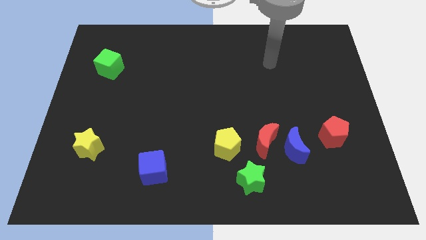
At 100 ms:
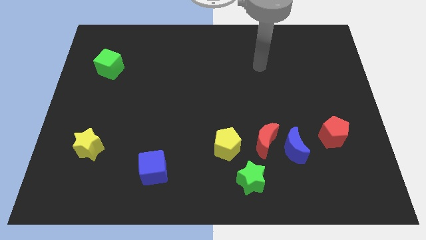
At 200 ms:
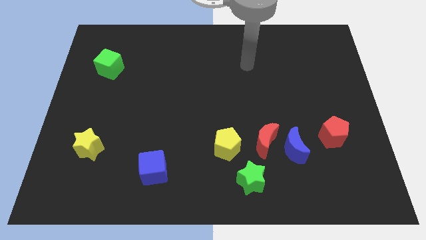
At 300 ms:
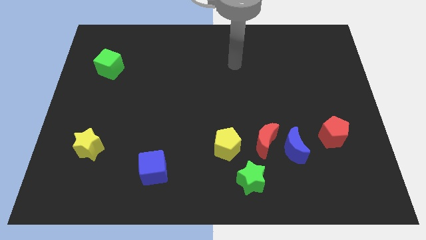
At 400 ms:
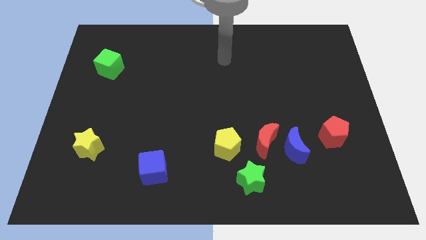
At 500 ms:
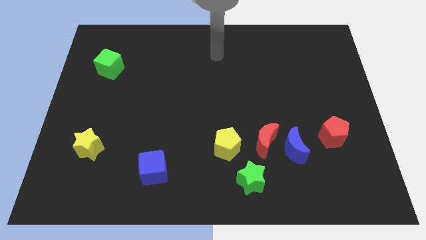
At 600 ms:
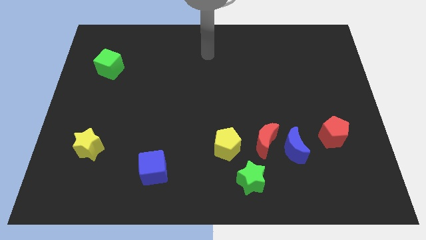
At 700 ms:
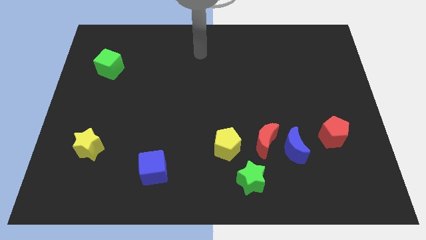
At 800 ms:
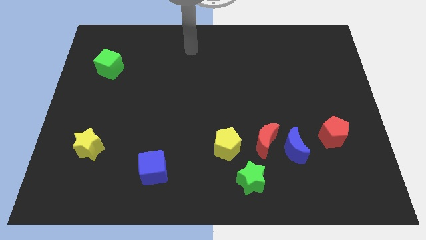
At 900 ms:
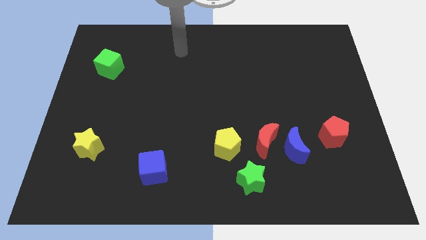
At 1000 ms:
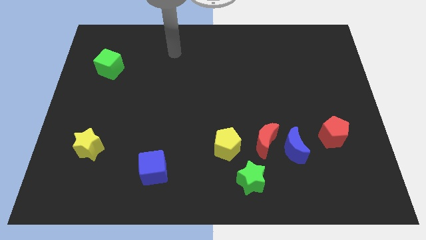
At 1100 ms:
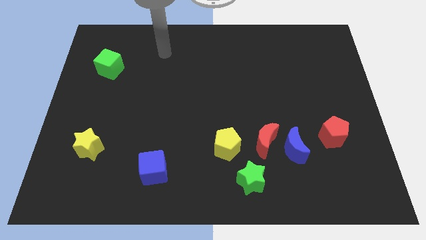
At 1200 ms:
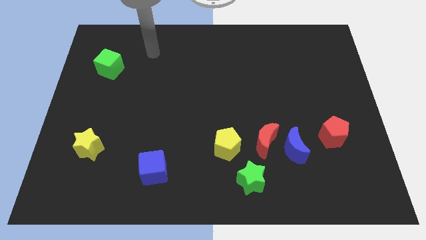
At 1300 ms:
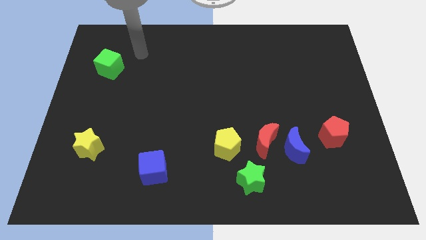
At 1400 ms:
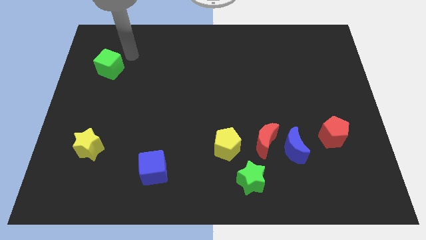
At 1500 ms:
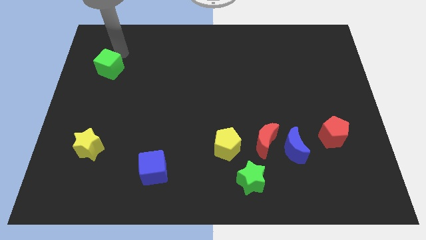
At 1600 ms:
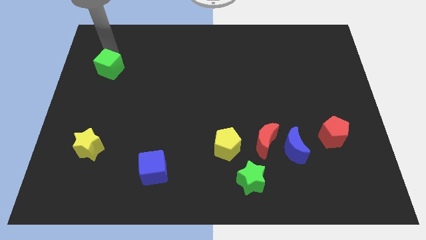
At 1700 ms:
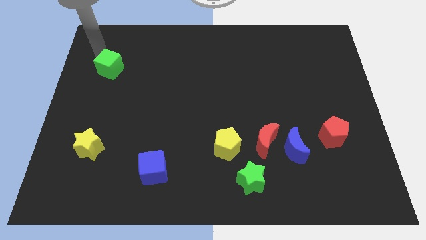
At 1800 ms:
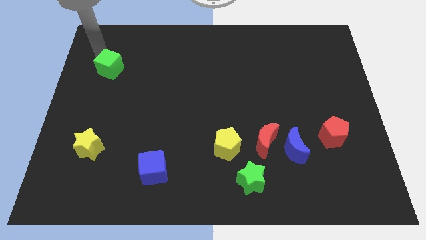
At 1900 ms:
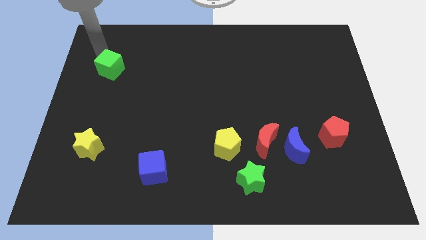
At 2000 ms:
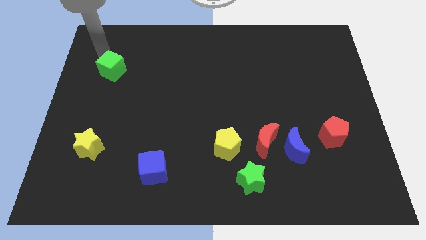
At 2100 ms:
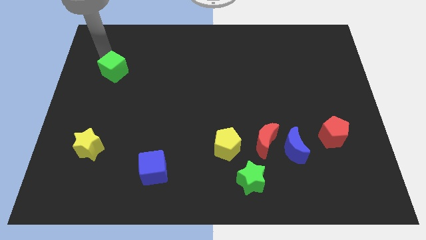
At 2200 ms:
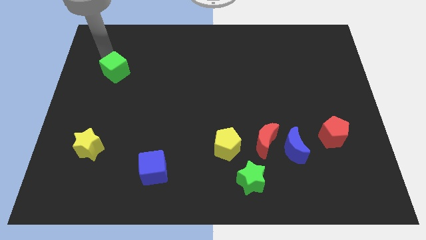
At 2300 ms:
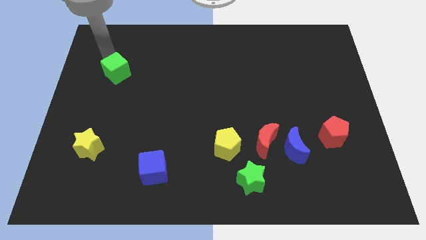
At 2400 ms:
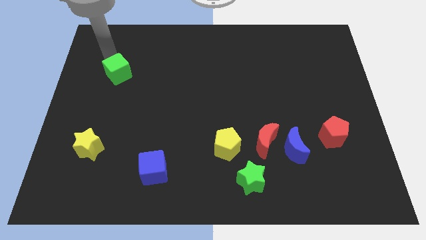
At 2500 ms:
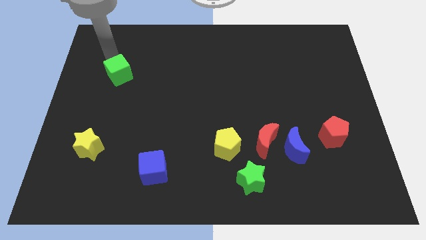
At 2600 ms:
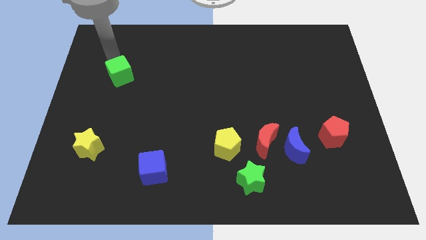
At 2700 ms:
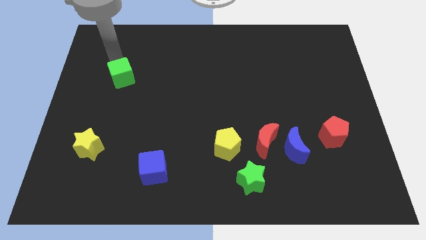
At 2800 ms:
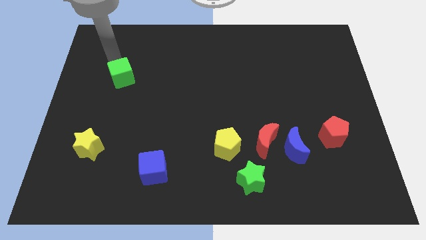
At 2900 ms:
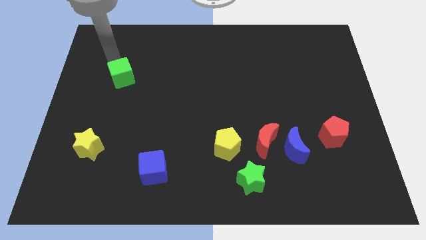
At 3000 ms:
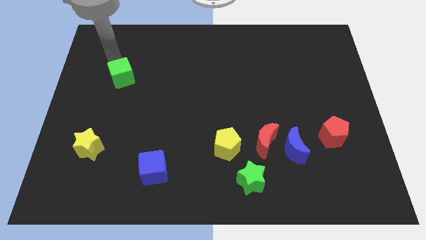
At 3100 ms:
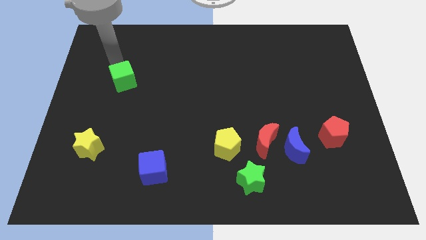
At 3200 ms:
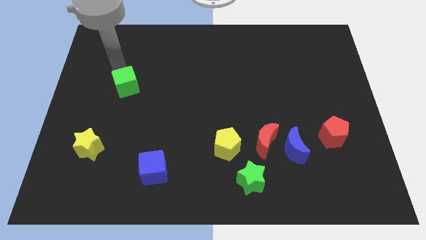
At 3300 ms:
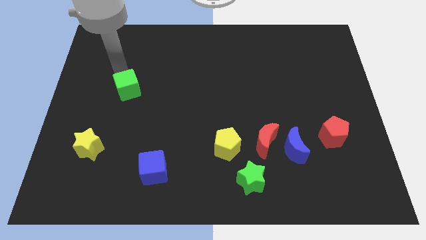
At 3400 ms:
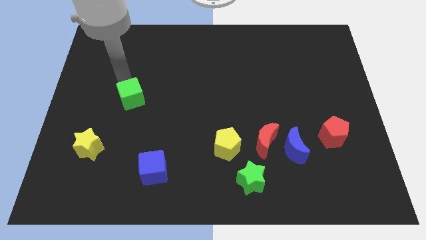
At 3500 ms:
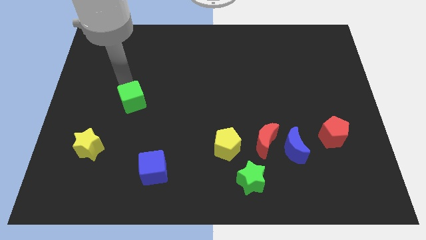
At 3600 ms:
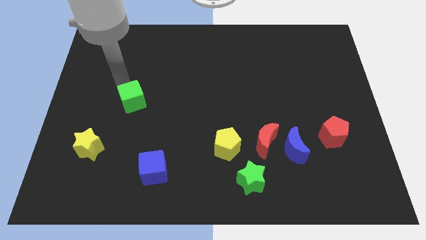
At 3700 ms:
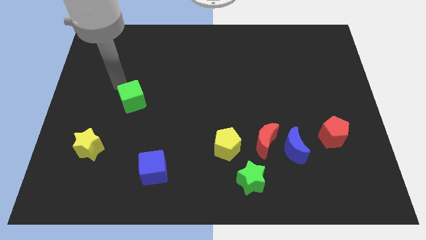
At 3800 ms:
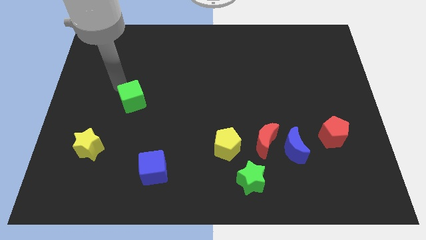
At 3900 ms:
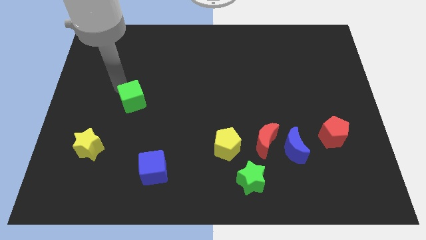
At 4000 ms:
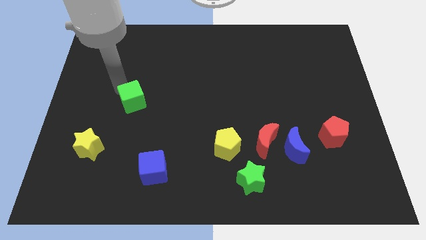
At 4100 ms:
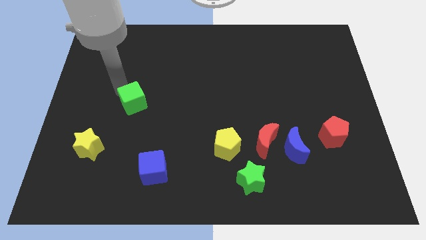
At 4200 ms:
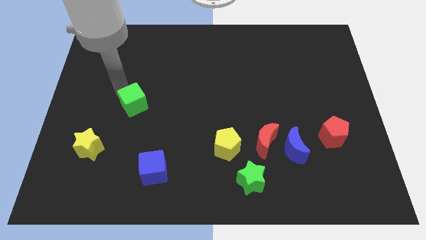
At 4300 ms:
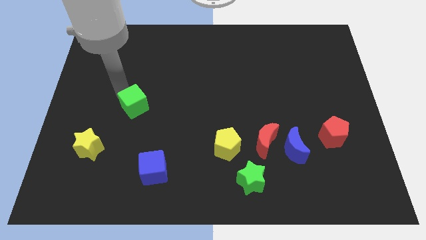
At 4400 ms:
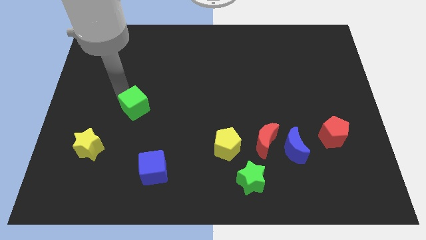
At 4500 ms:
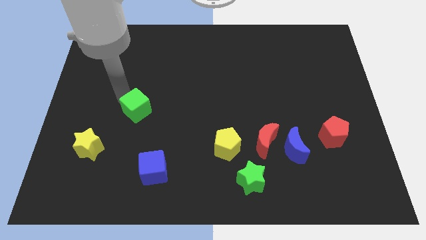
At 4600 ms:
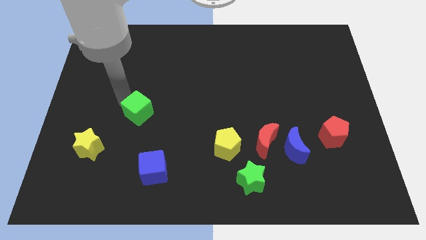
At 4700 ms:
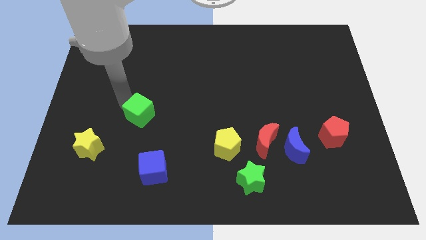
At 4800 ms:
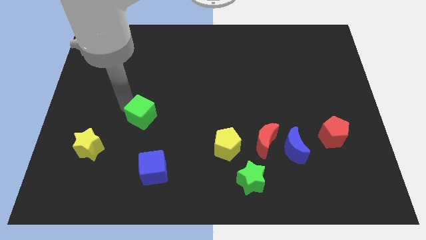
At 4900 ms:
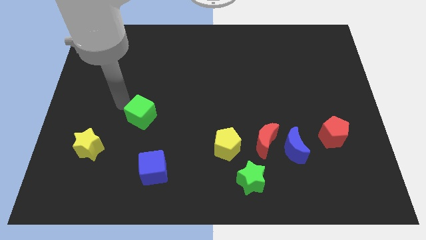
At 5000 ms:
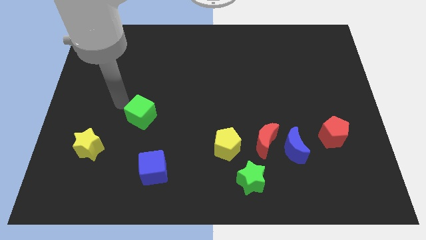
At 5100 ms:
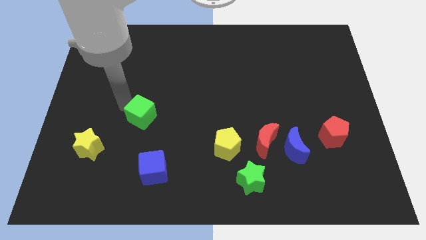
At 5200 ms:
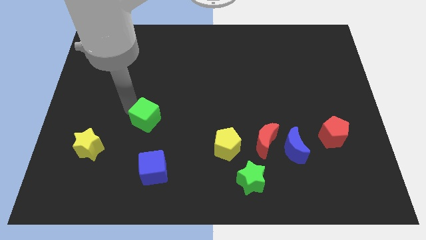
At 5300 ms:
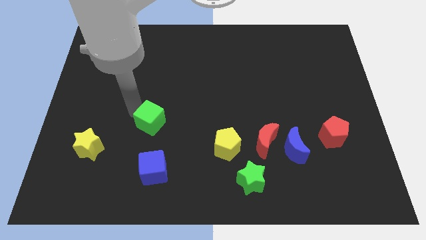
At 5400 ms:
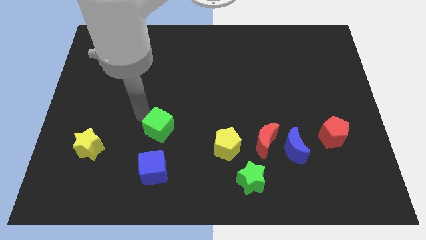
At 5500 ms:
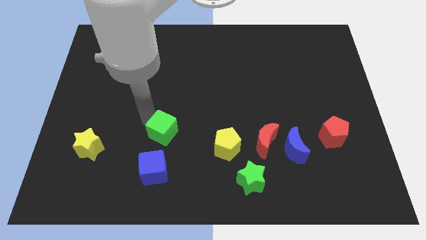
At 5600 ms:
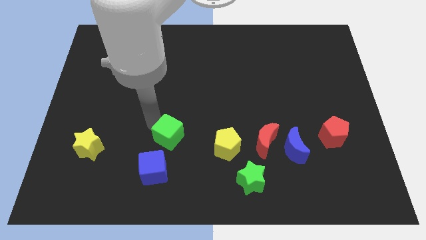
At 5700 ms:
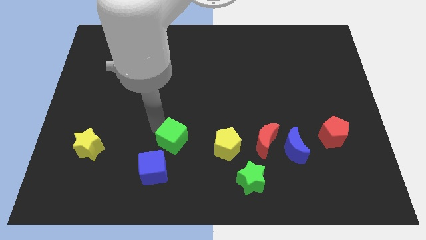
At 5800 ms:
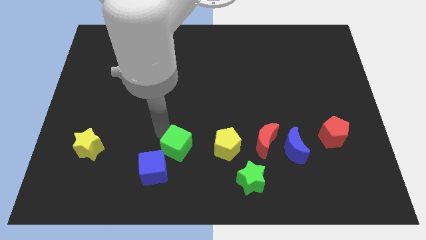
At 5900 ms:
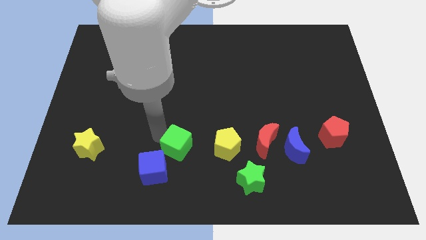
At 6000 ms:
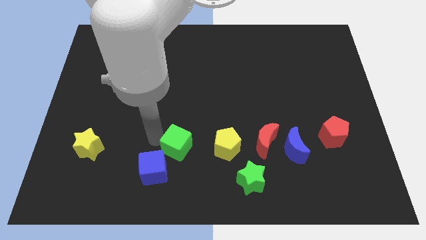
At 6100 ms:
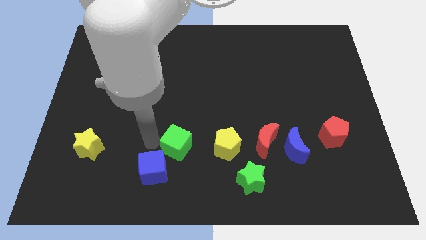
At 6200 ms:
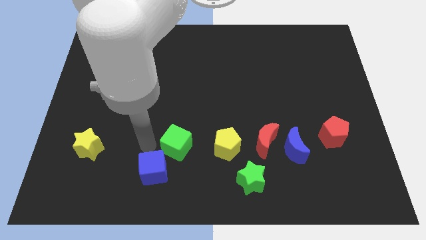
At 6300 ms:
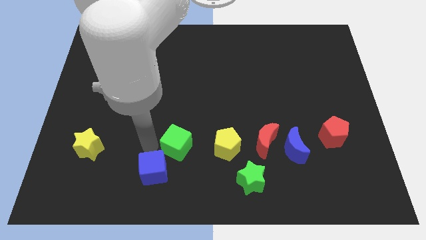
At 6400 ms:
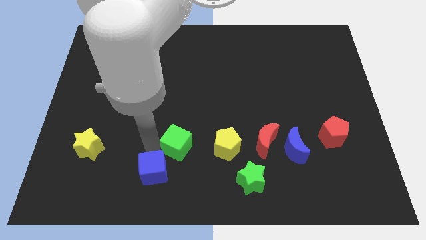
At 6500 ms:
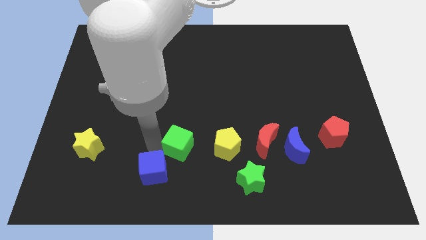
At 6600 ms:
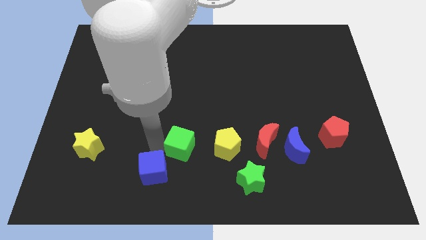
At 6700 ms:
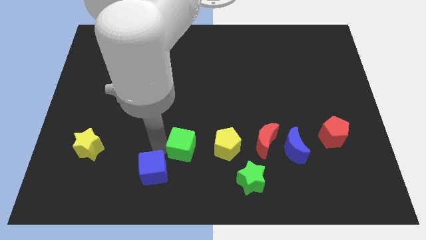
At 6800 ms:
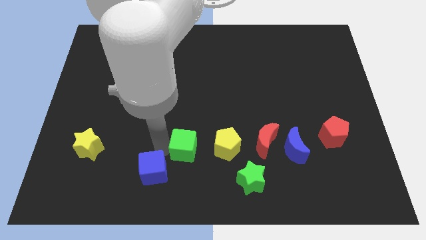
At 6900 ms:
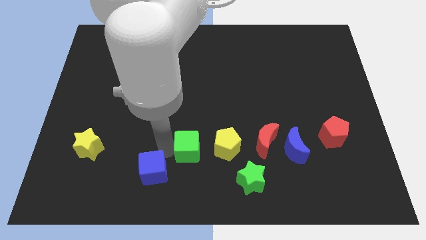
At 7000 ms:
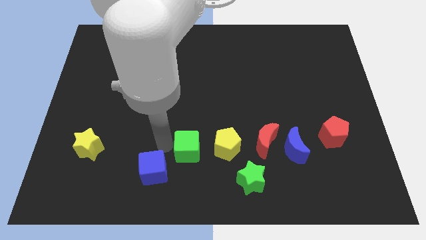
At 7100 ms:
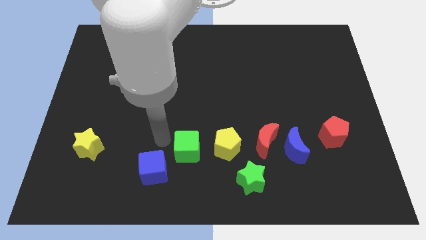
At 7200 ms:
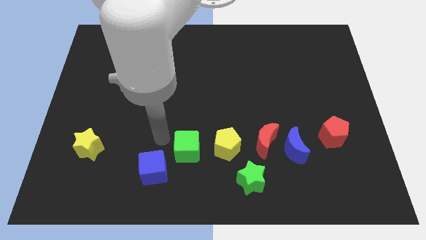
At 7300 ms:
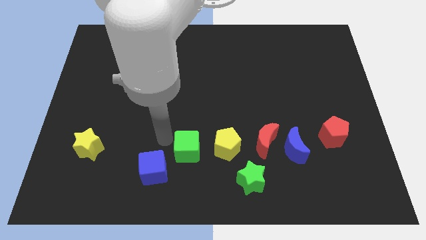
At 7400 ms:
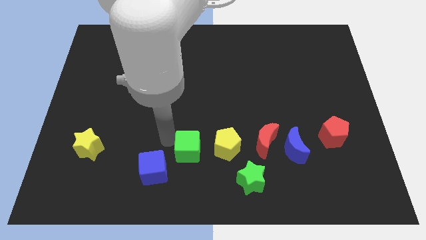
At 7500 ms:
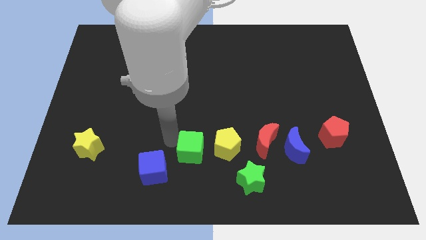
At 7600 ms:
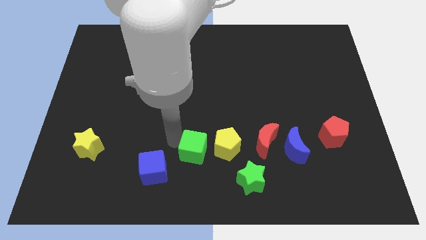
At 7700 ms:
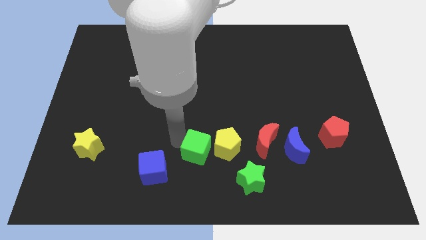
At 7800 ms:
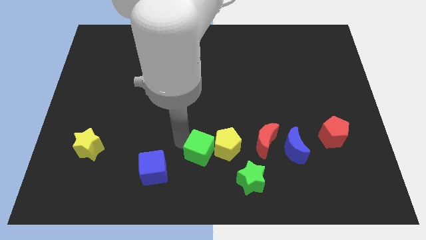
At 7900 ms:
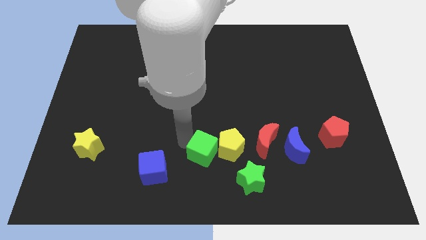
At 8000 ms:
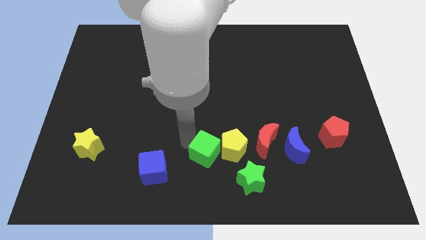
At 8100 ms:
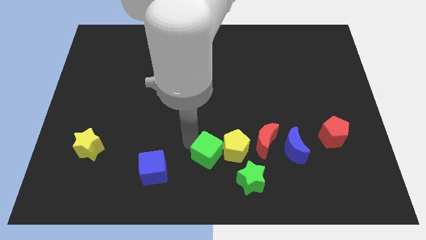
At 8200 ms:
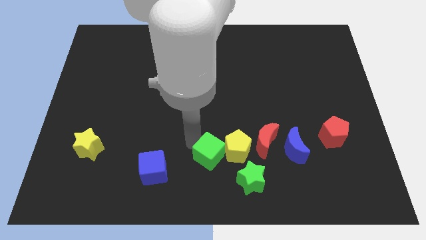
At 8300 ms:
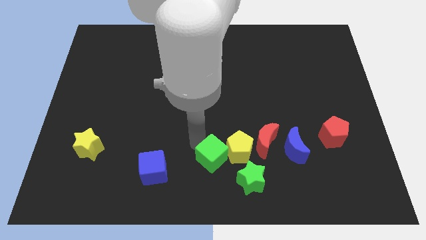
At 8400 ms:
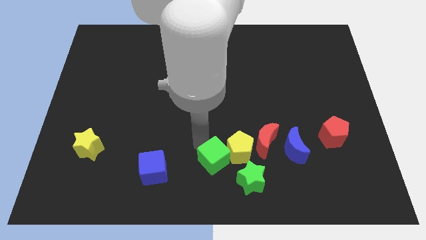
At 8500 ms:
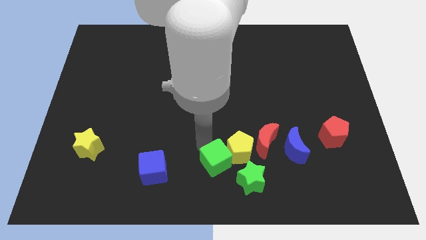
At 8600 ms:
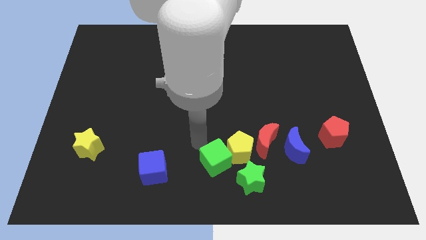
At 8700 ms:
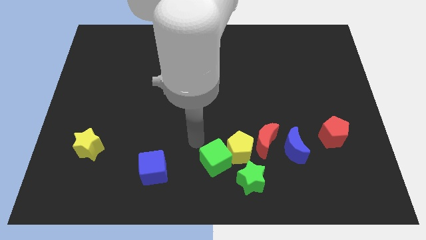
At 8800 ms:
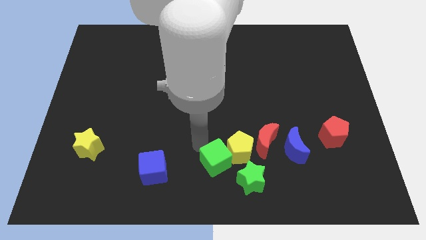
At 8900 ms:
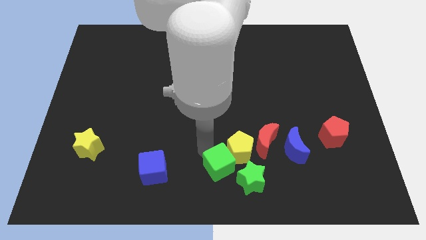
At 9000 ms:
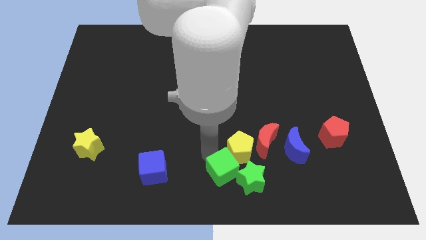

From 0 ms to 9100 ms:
slide the green cube towards the green star
